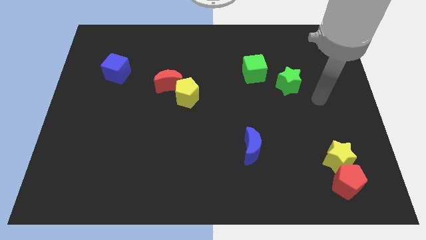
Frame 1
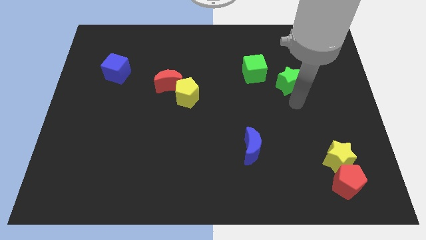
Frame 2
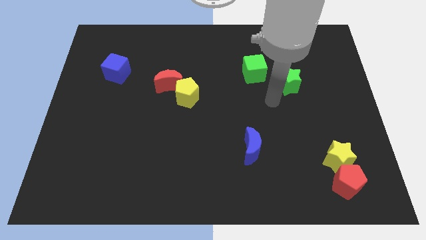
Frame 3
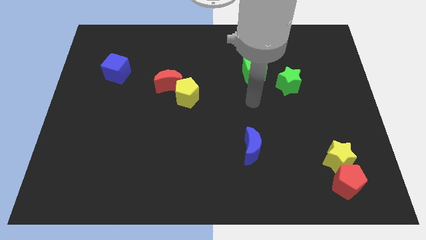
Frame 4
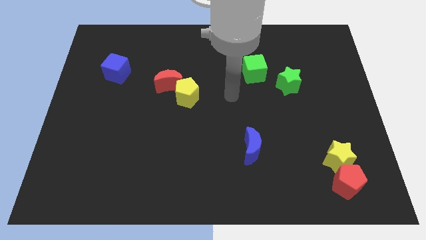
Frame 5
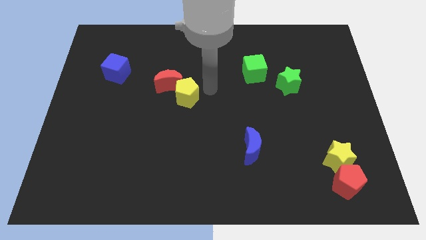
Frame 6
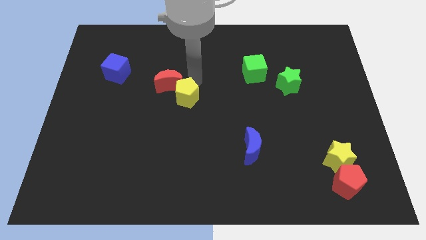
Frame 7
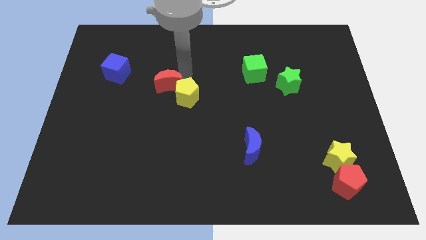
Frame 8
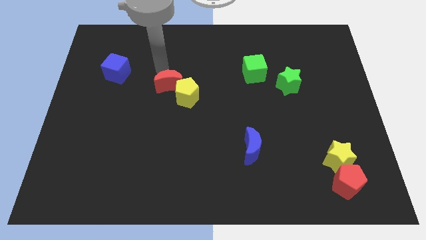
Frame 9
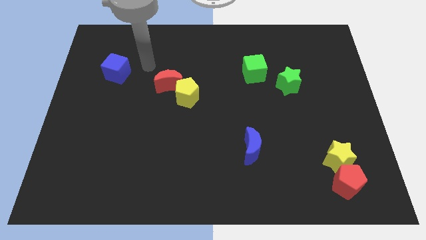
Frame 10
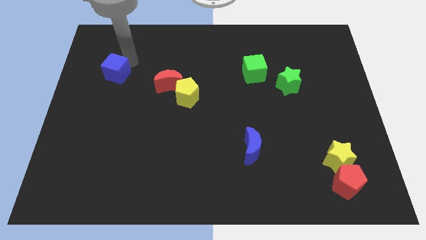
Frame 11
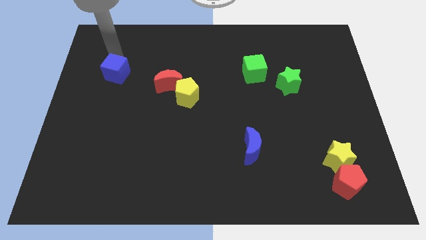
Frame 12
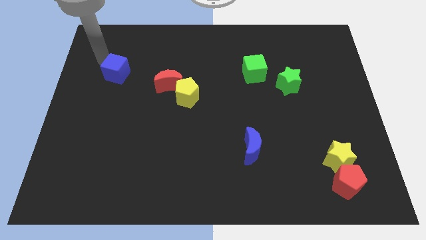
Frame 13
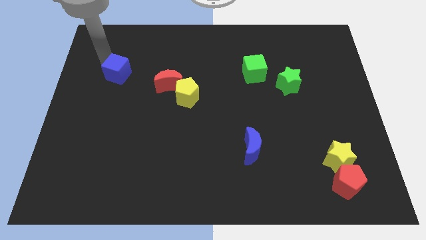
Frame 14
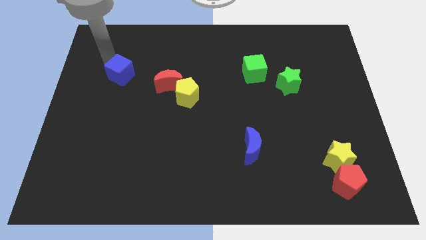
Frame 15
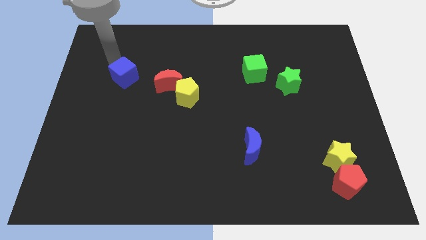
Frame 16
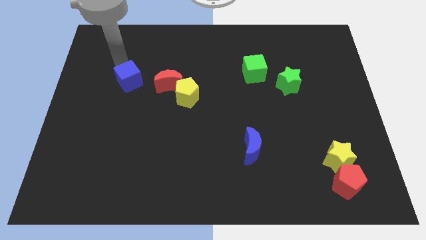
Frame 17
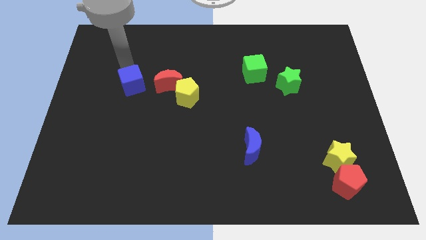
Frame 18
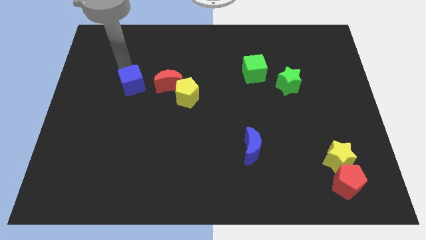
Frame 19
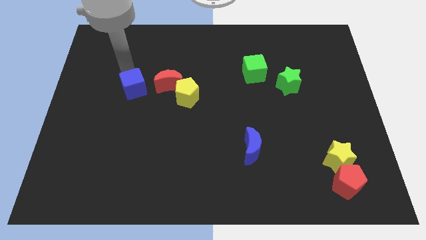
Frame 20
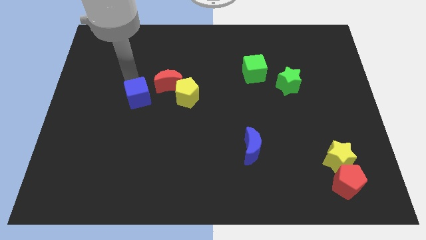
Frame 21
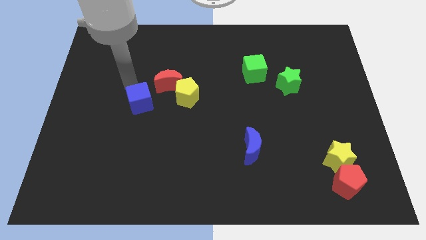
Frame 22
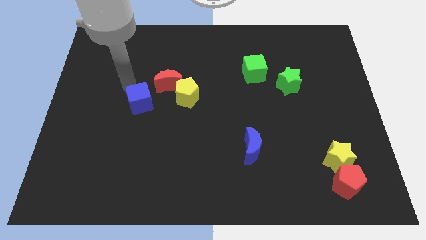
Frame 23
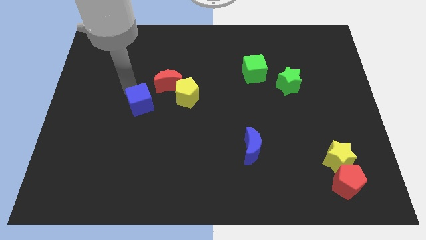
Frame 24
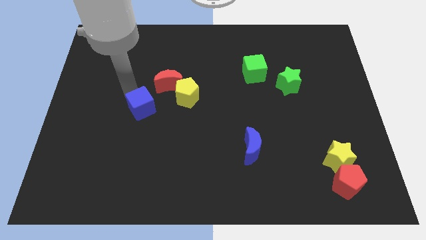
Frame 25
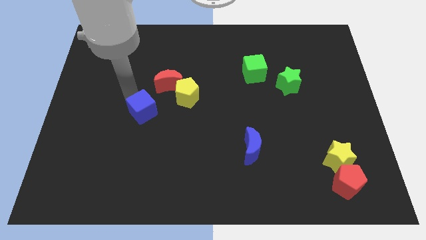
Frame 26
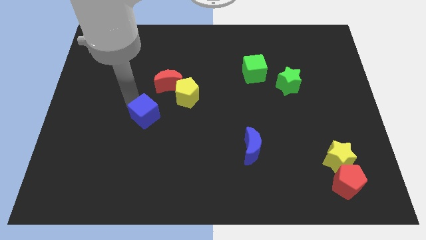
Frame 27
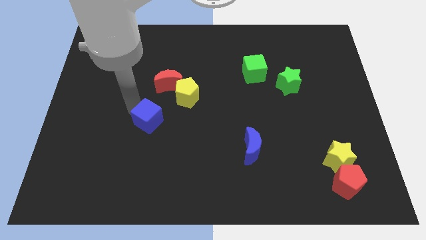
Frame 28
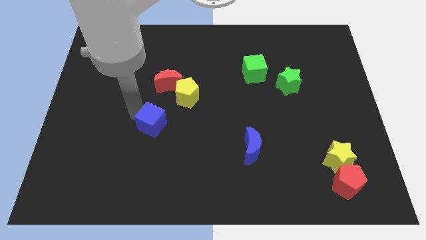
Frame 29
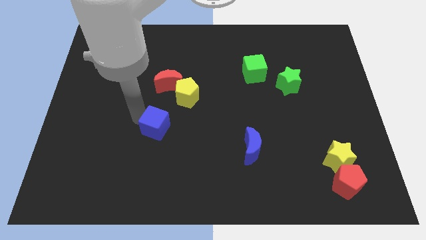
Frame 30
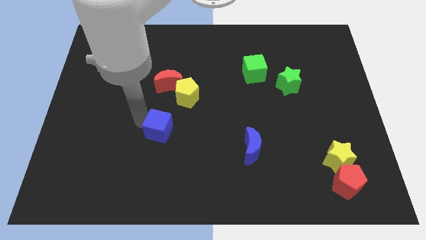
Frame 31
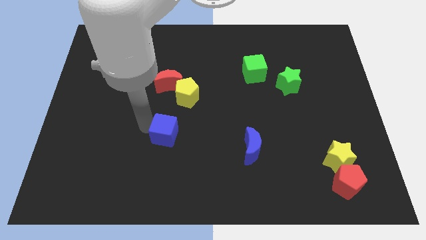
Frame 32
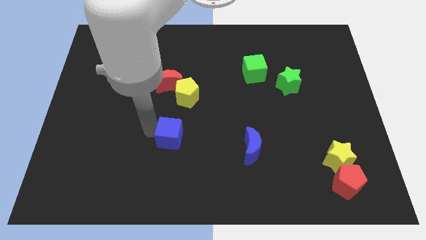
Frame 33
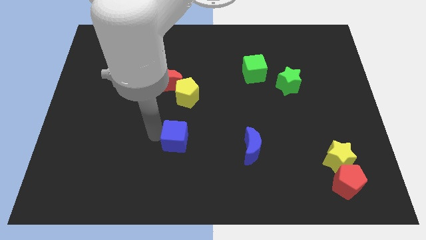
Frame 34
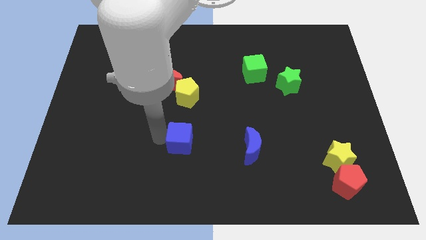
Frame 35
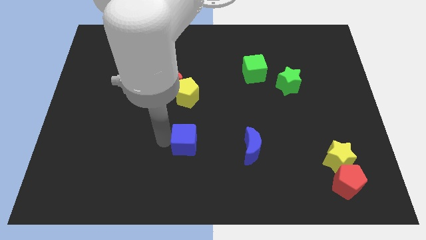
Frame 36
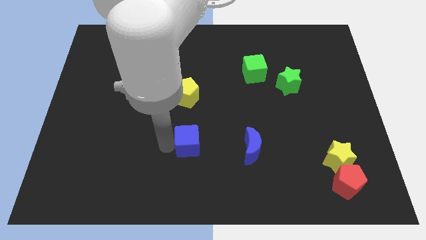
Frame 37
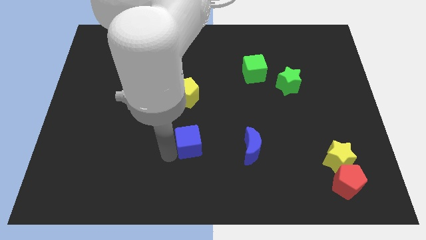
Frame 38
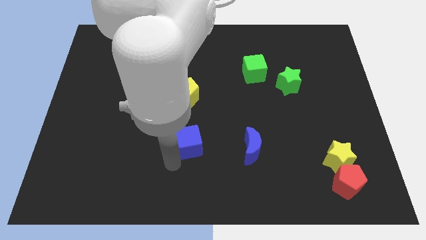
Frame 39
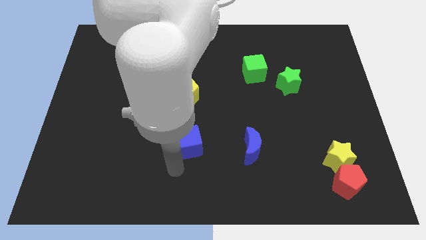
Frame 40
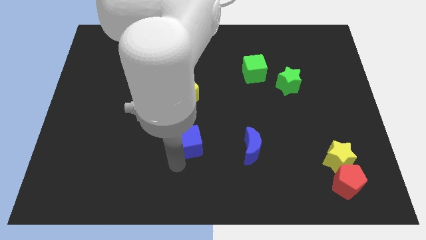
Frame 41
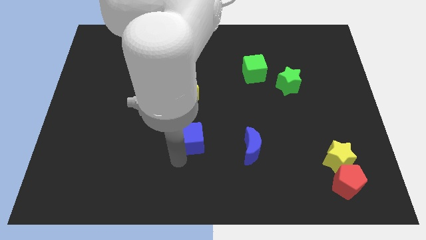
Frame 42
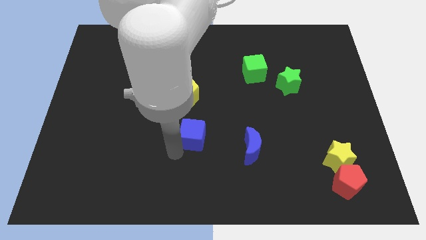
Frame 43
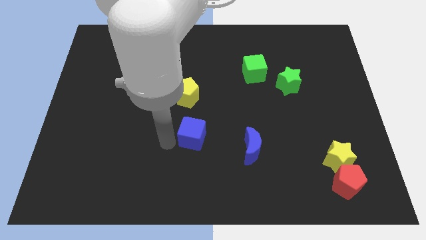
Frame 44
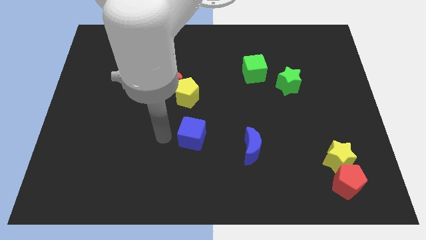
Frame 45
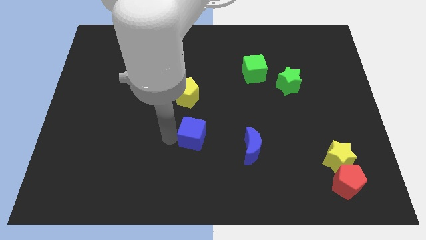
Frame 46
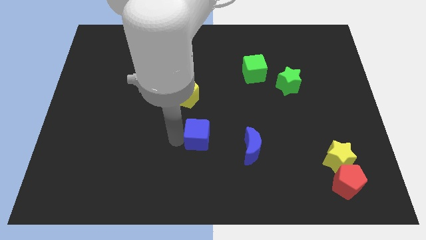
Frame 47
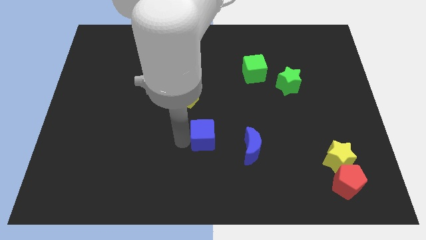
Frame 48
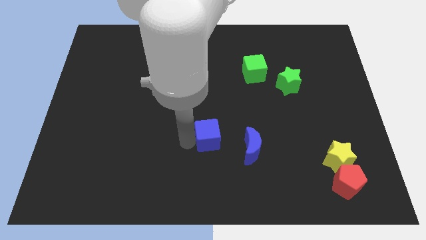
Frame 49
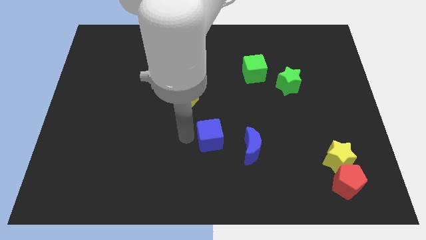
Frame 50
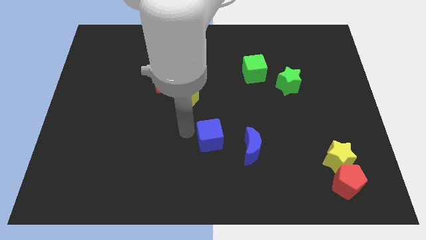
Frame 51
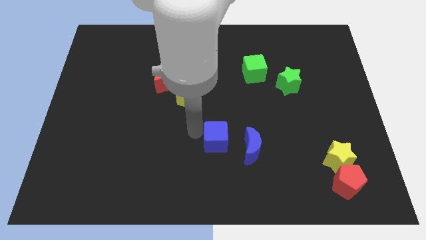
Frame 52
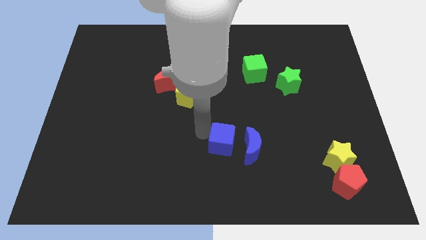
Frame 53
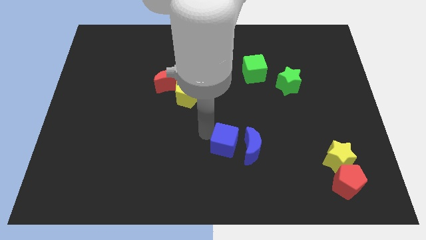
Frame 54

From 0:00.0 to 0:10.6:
push the blue cube close to the blue moon

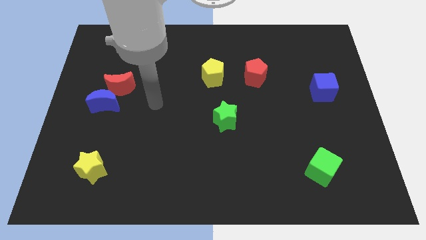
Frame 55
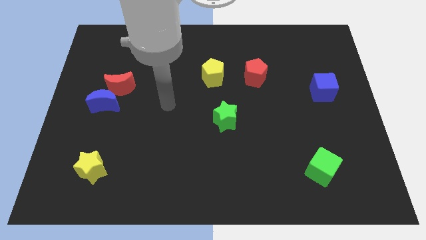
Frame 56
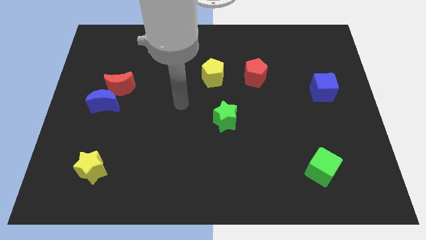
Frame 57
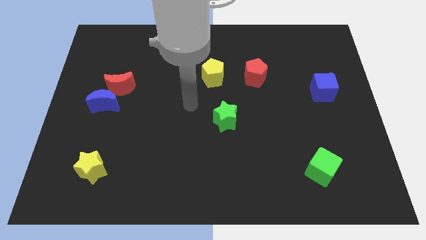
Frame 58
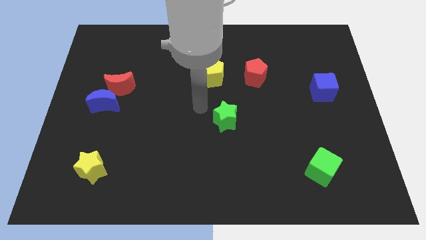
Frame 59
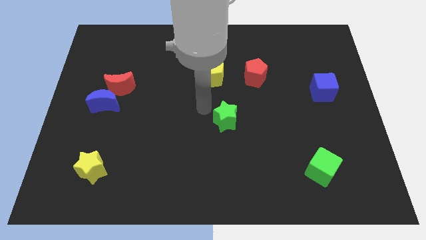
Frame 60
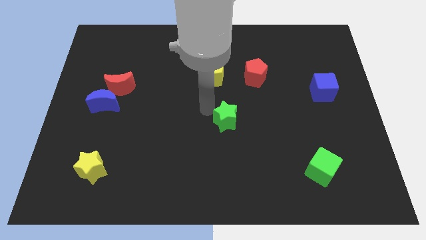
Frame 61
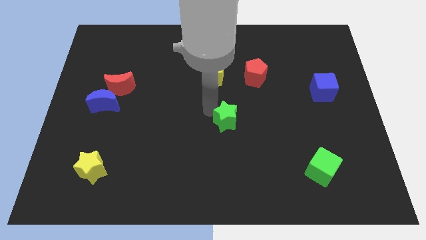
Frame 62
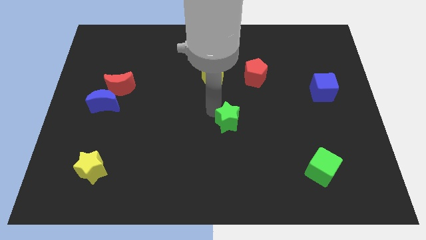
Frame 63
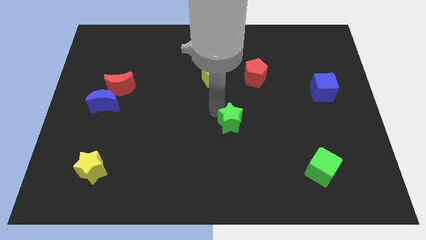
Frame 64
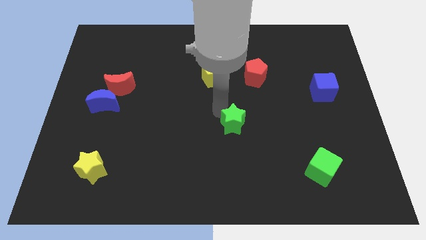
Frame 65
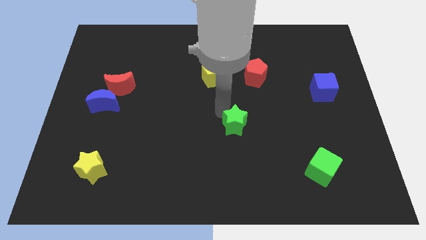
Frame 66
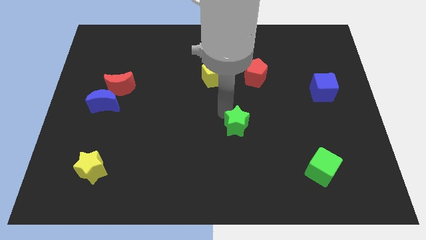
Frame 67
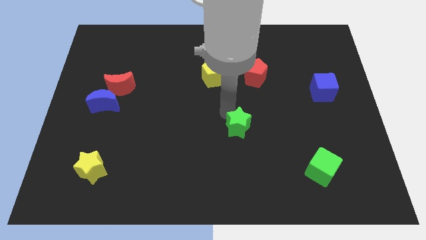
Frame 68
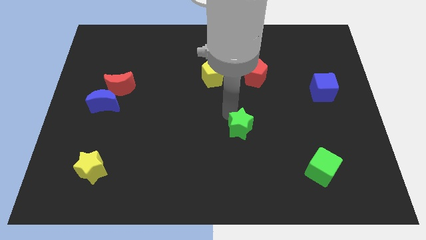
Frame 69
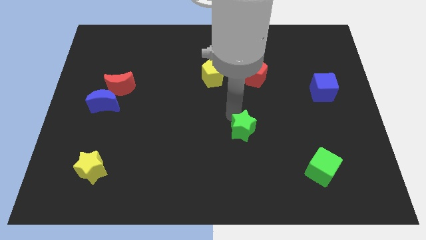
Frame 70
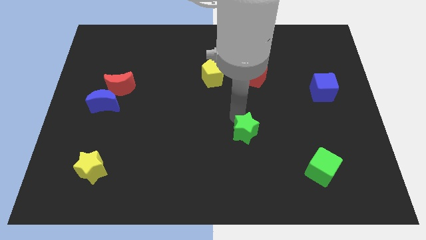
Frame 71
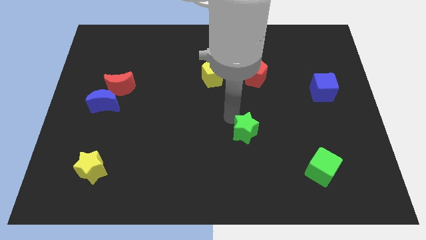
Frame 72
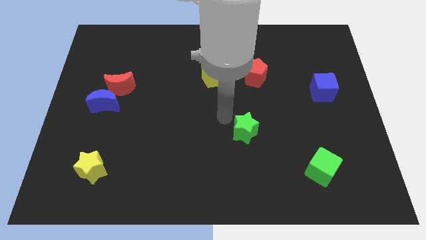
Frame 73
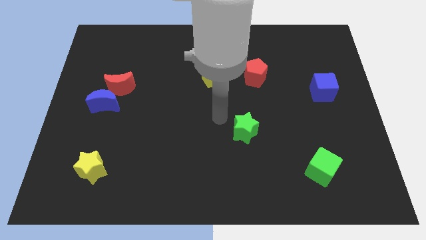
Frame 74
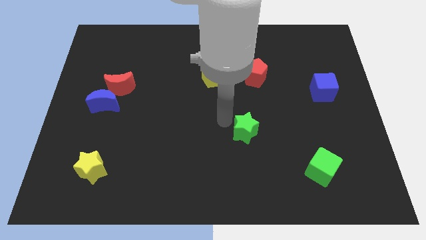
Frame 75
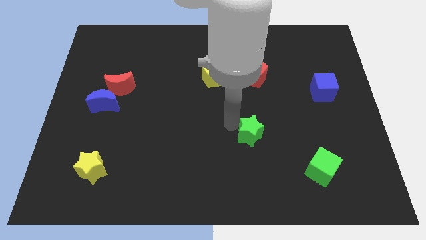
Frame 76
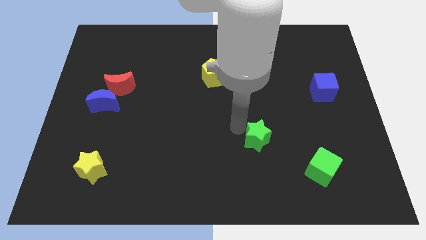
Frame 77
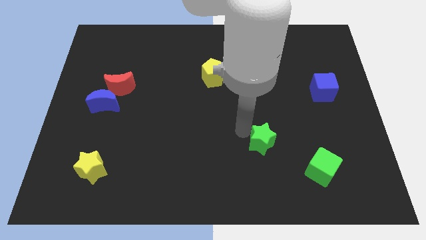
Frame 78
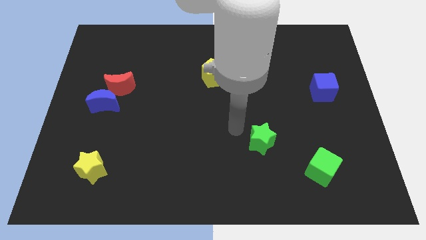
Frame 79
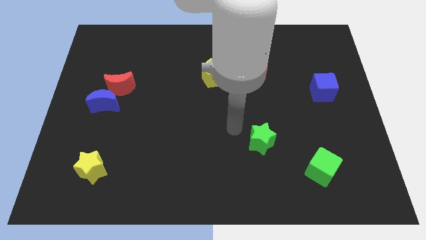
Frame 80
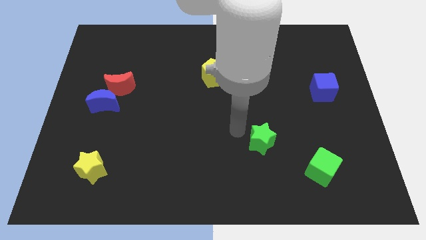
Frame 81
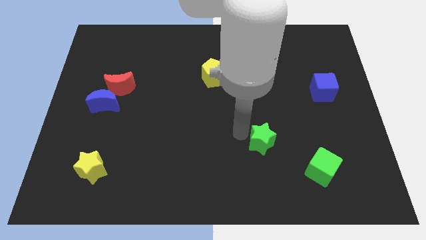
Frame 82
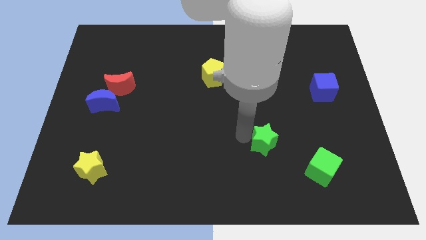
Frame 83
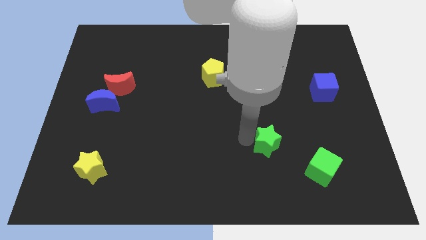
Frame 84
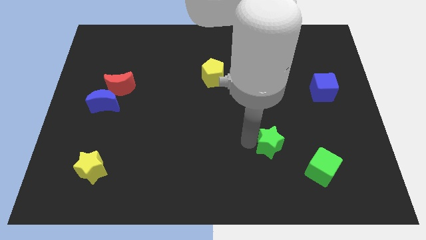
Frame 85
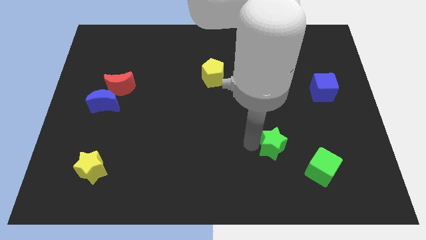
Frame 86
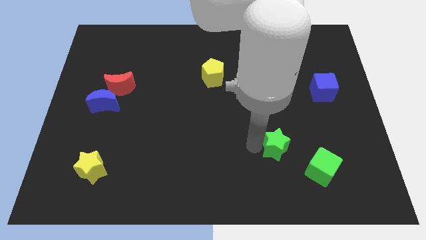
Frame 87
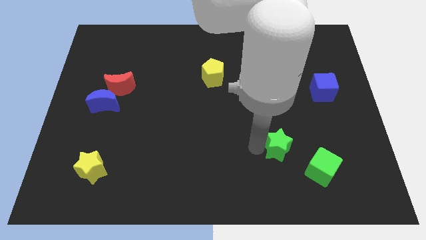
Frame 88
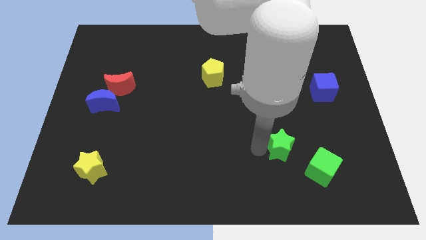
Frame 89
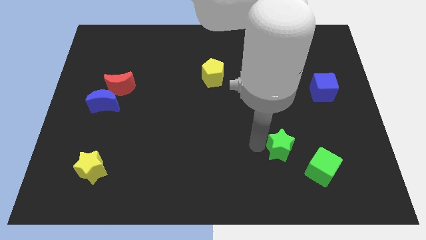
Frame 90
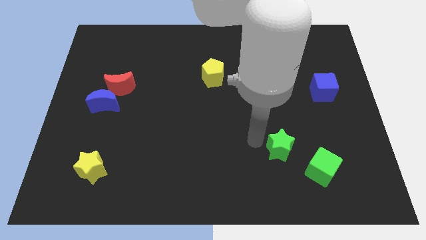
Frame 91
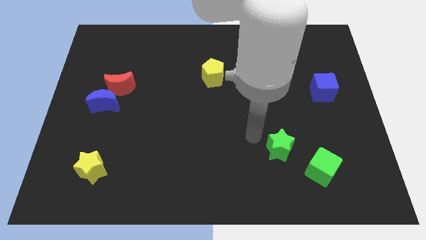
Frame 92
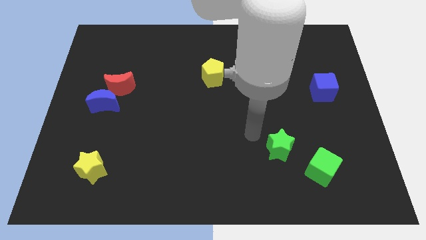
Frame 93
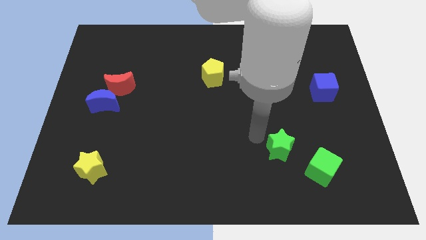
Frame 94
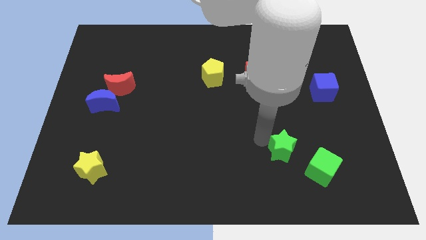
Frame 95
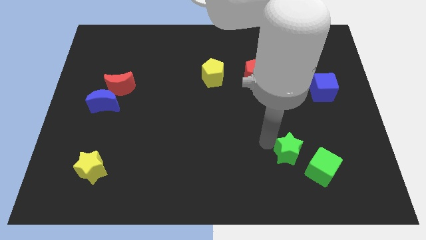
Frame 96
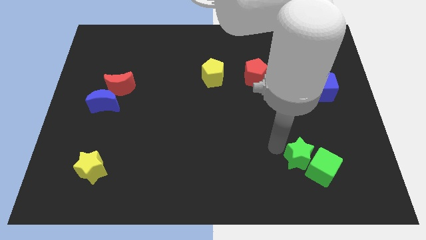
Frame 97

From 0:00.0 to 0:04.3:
move the green star to the green cube
